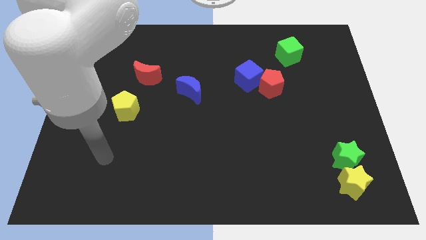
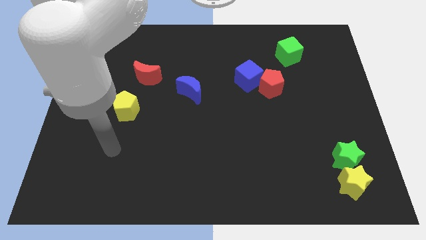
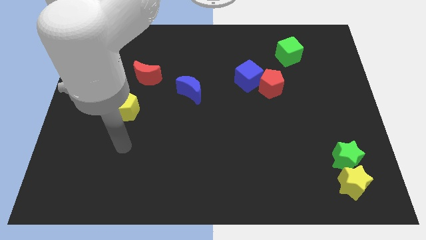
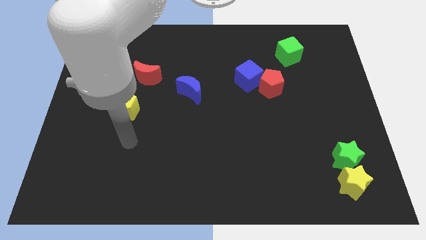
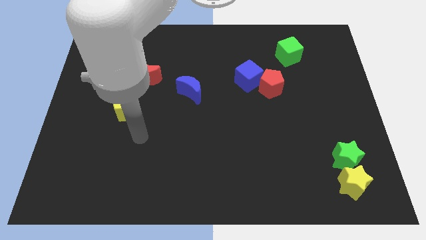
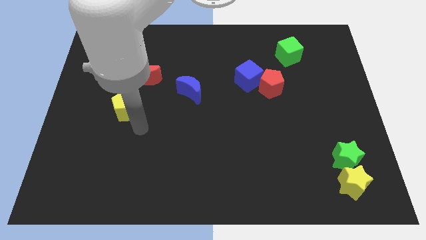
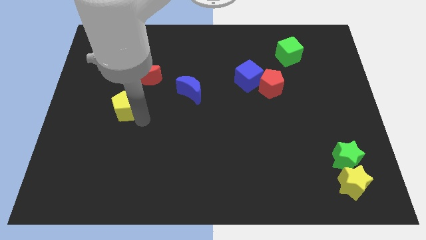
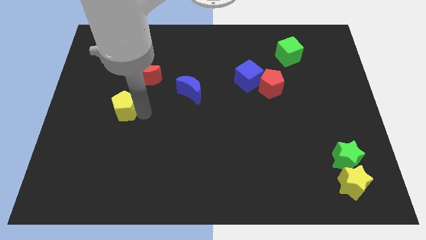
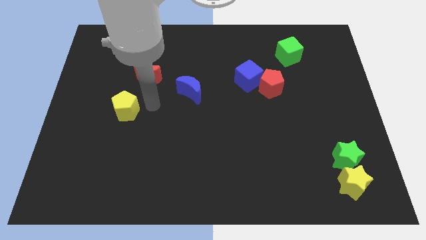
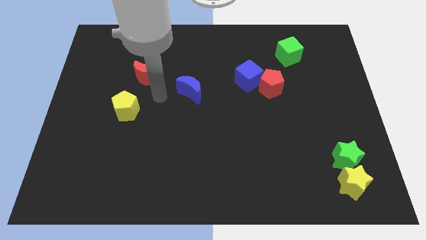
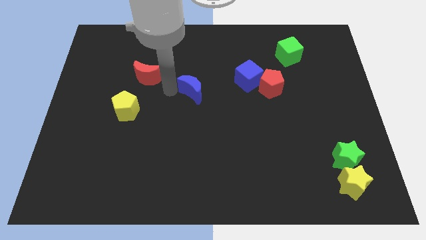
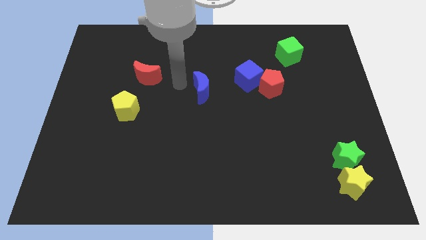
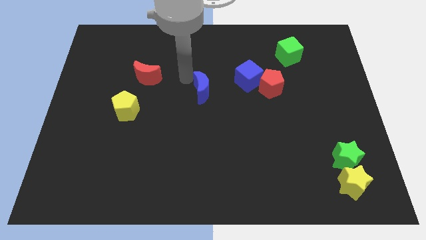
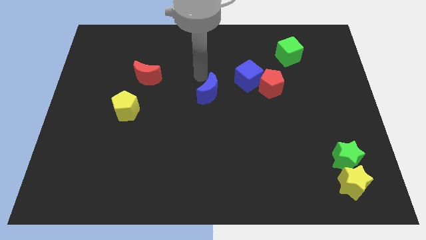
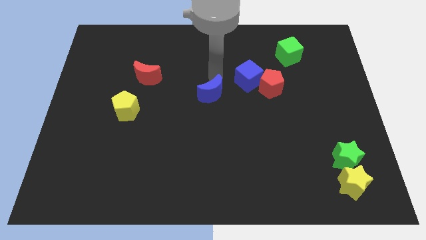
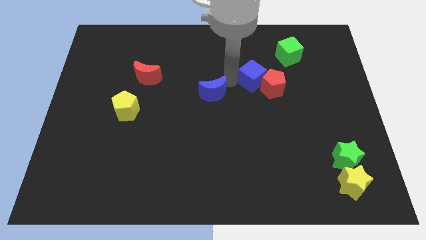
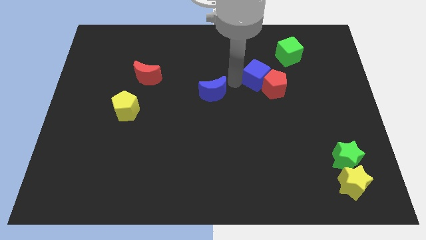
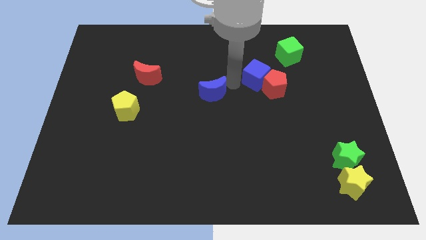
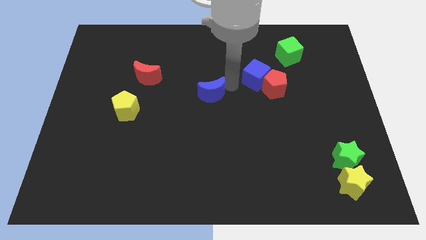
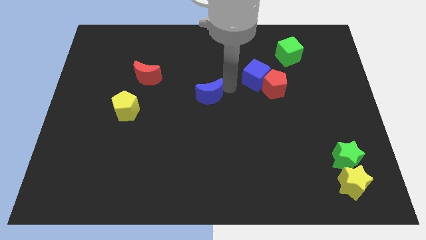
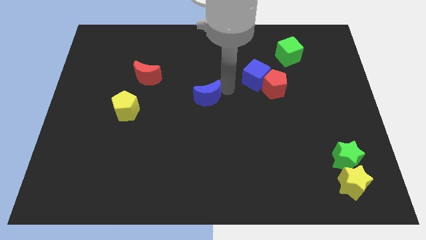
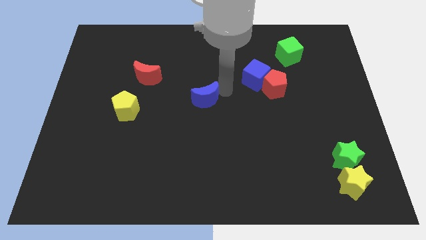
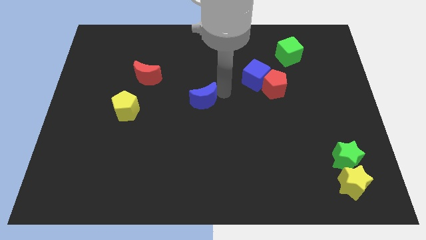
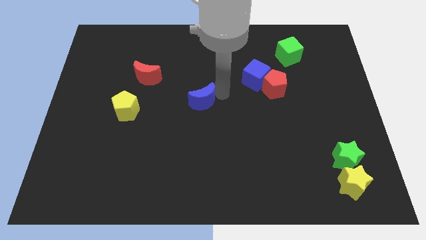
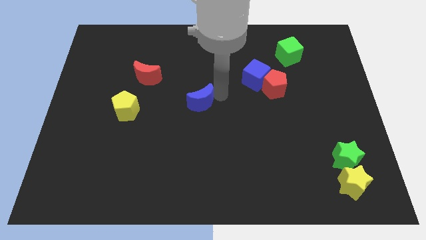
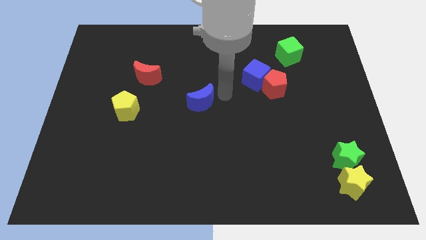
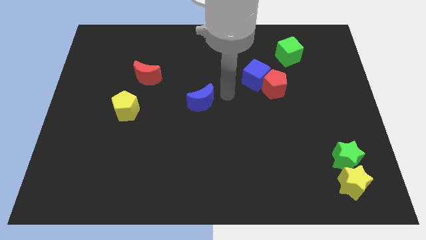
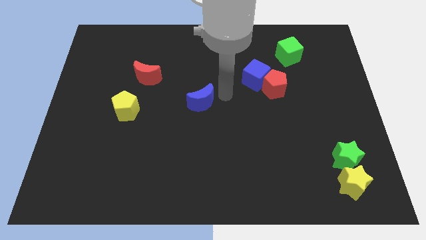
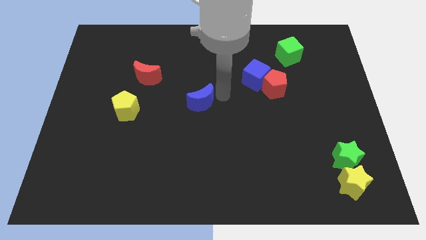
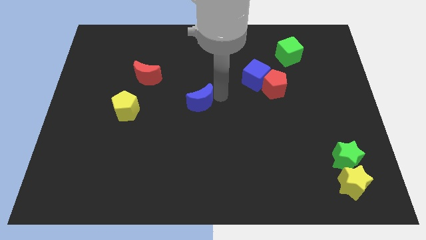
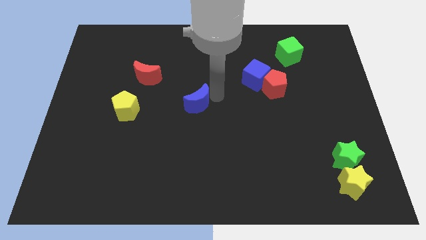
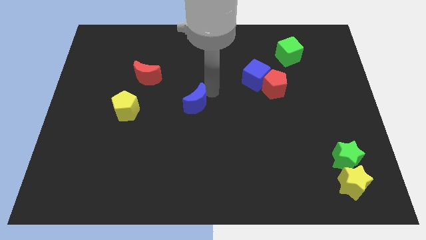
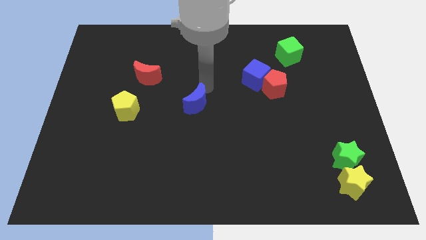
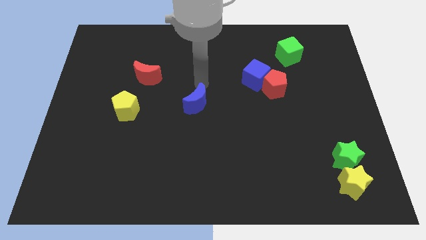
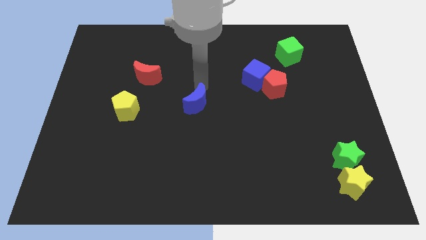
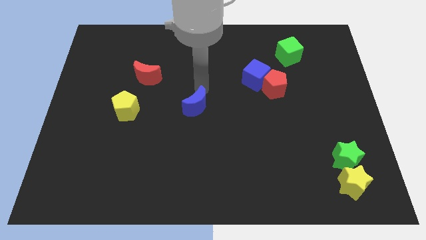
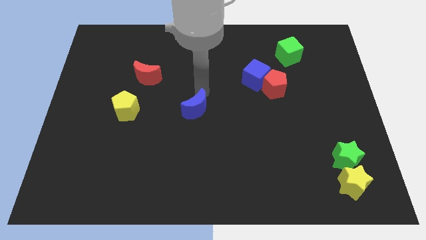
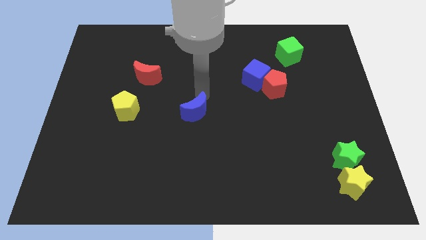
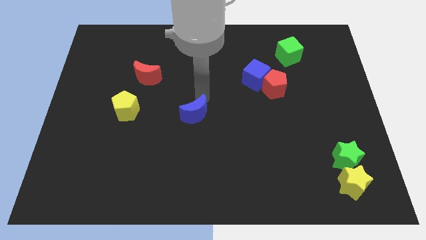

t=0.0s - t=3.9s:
slightly slide the blue moon down

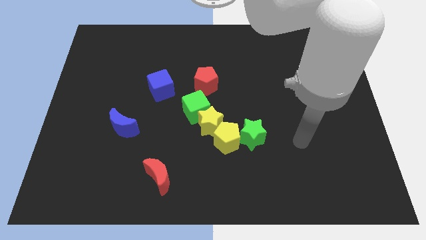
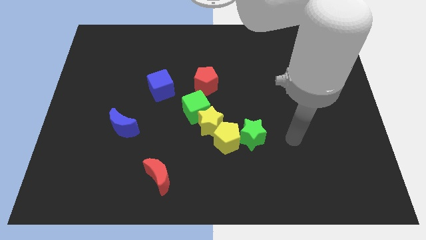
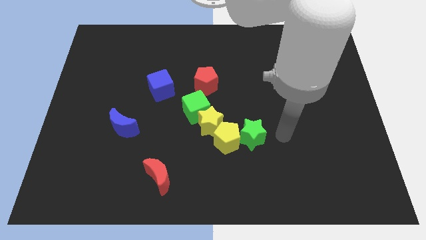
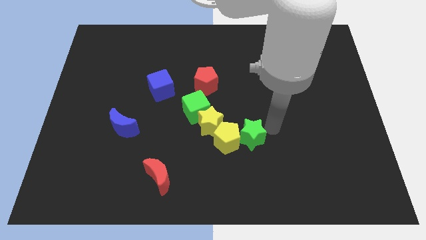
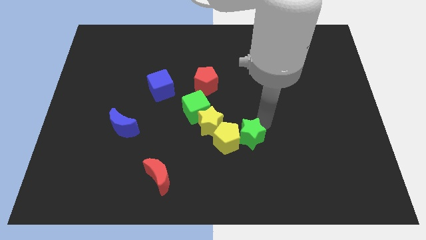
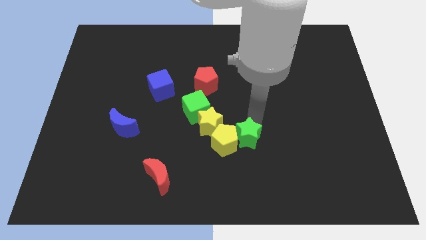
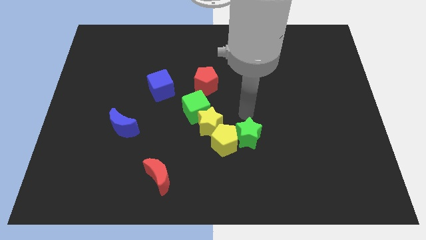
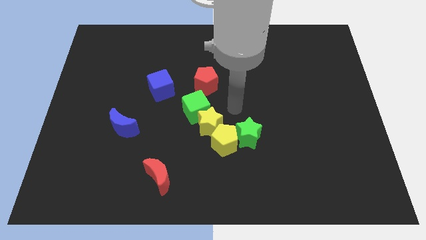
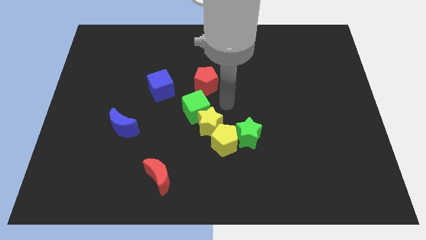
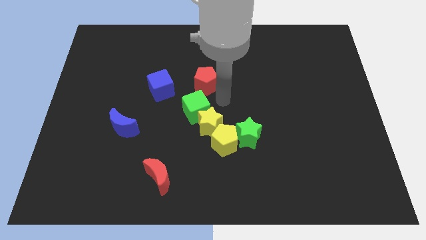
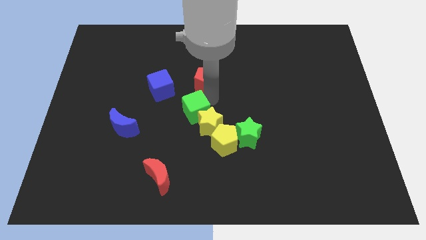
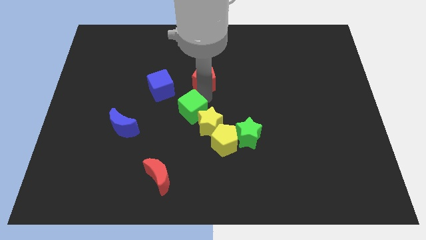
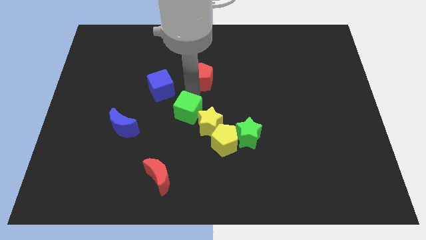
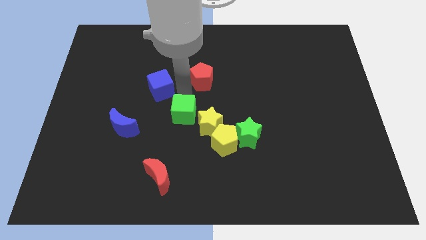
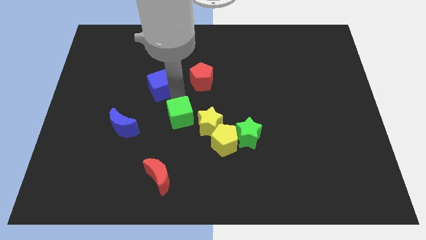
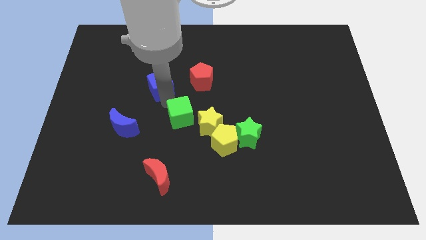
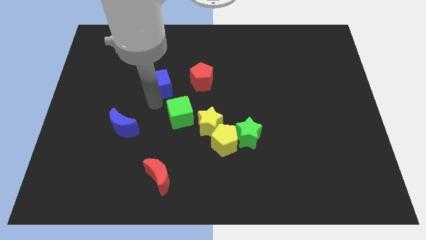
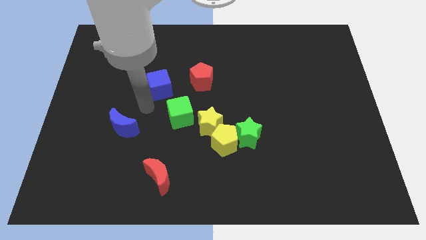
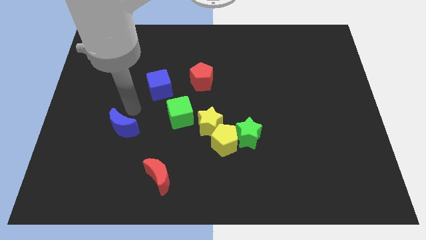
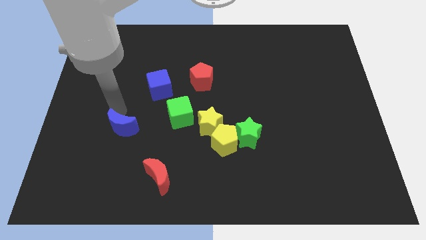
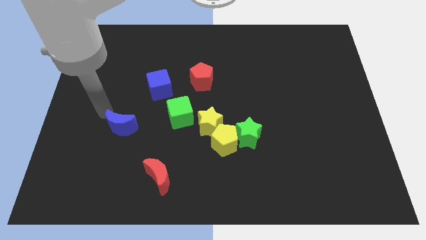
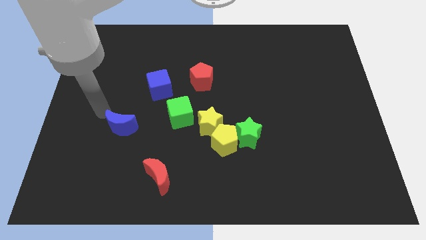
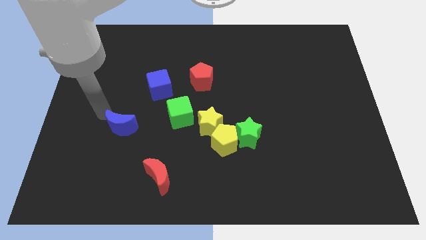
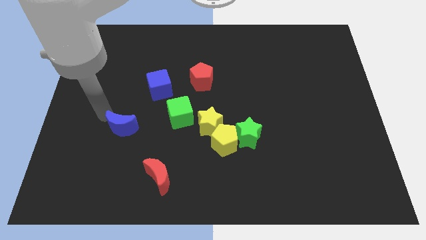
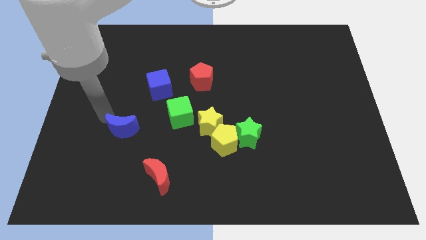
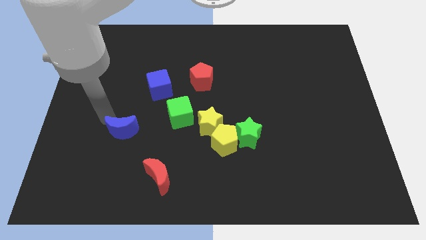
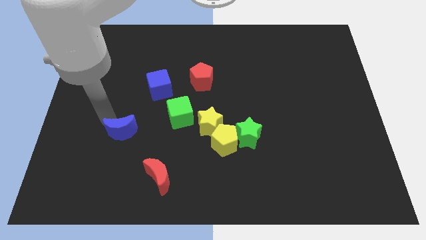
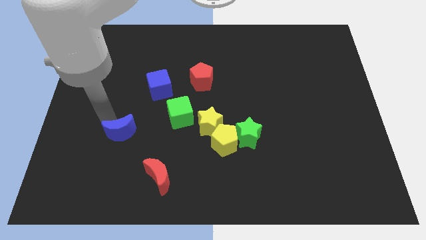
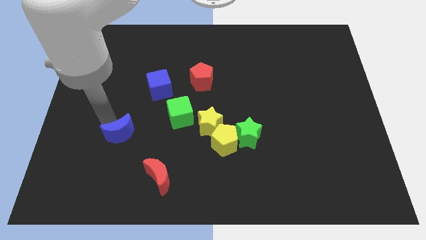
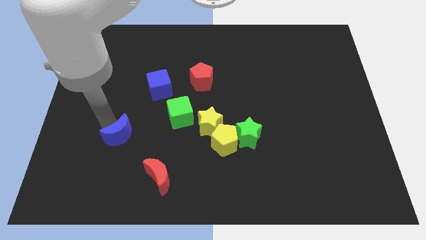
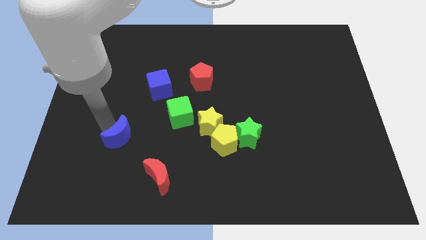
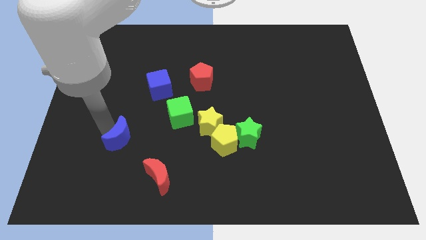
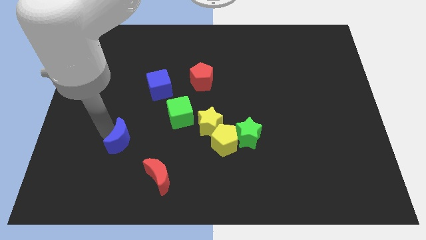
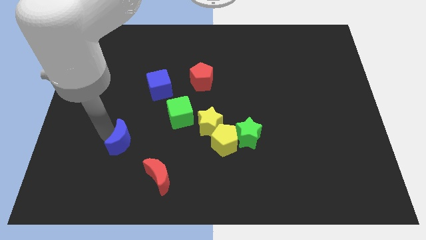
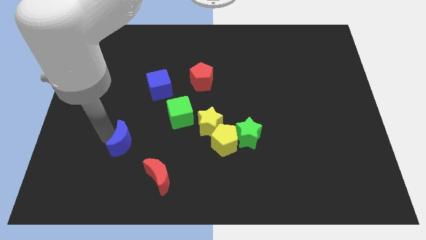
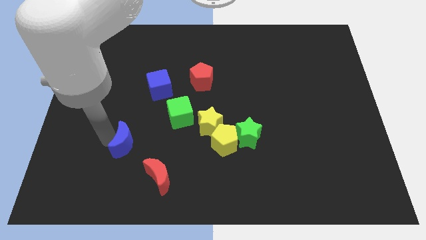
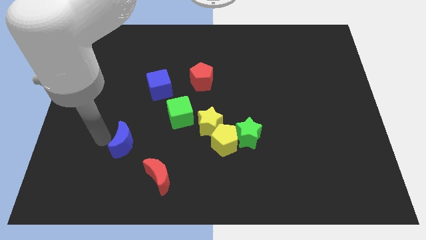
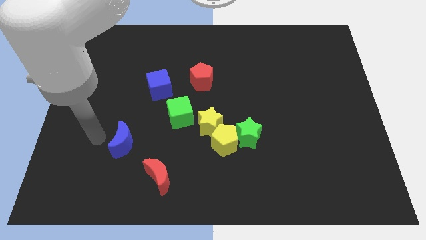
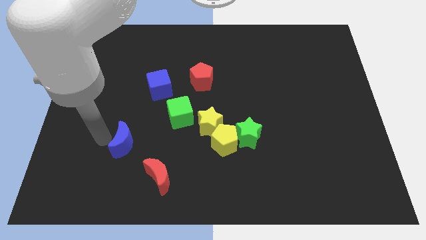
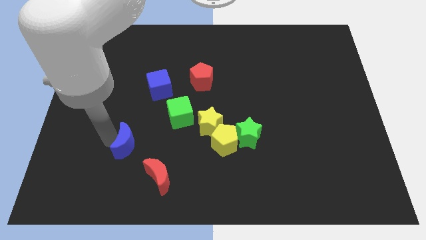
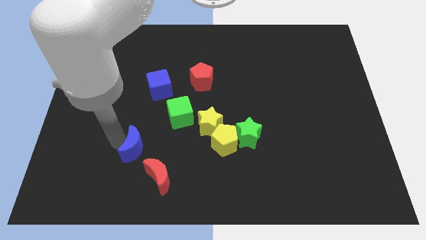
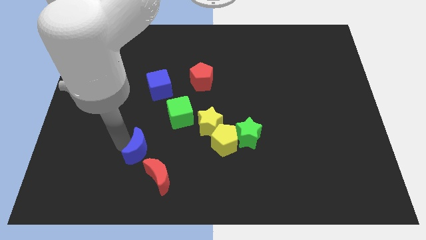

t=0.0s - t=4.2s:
push the blue moon a little bit down and right

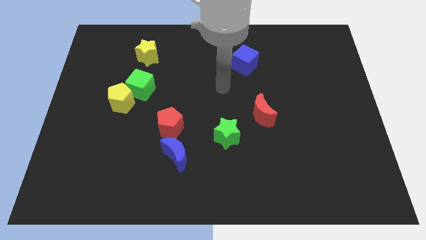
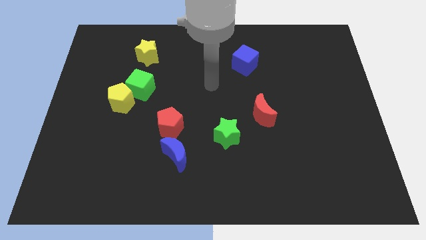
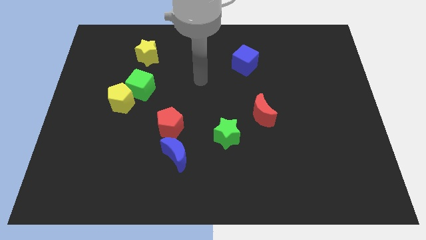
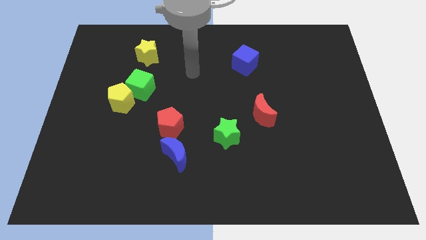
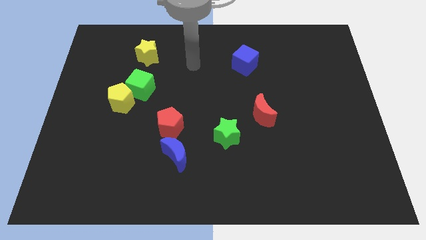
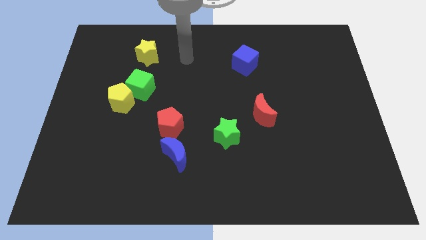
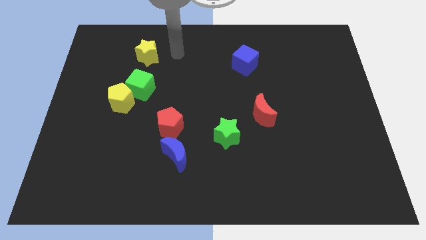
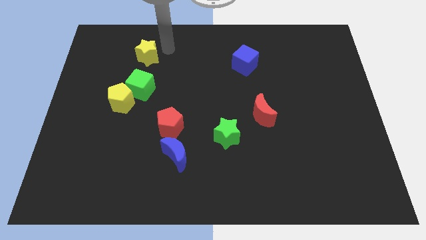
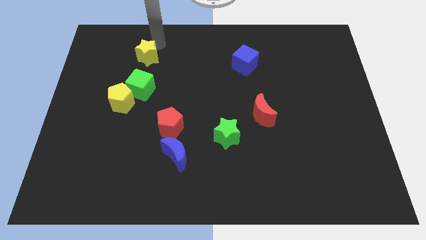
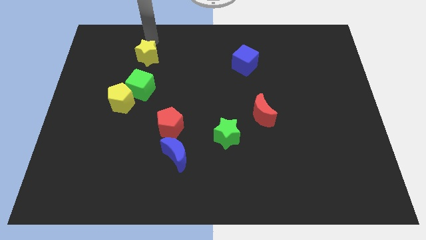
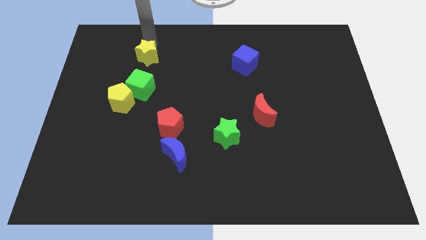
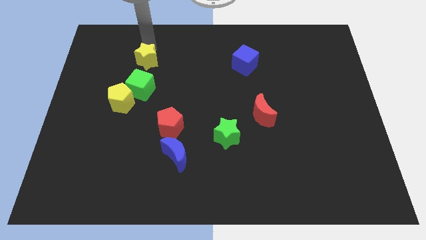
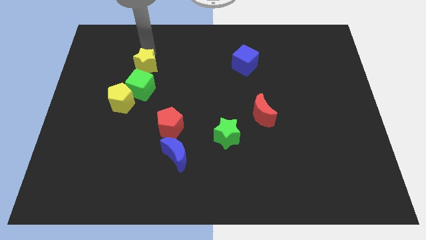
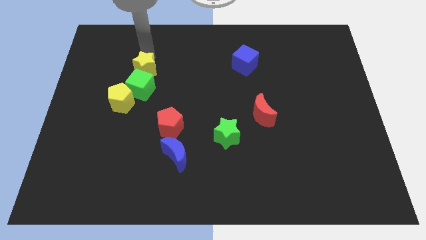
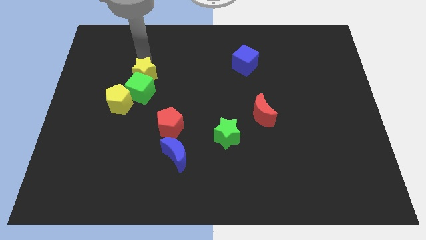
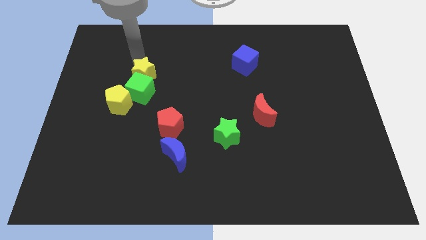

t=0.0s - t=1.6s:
move the yellow star downwards a little
